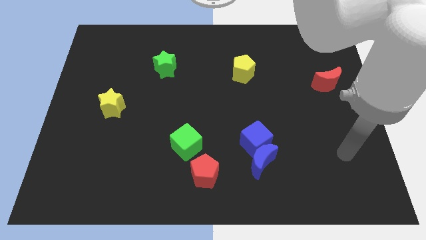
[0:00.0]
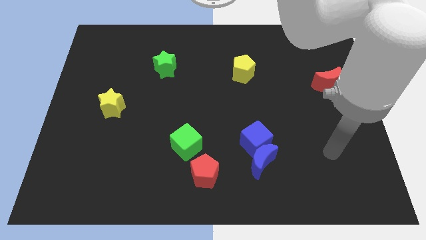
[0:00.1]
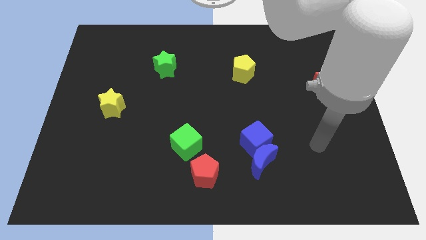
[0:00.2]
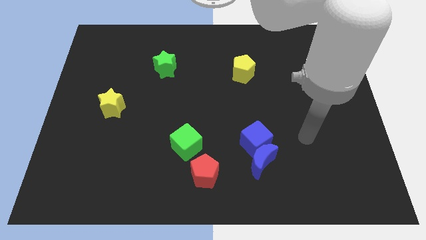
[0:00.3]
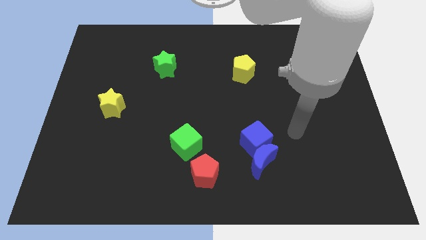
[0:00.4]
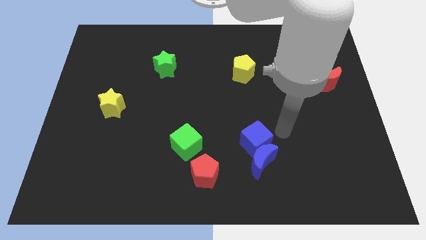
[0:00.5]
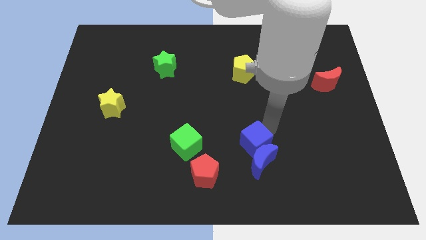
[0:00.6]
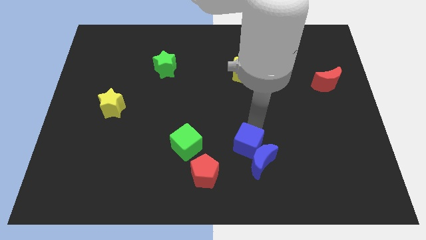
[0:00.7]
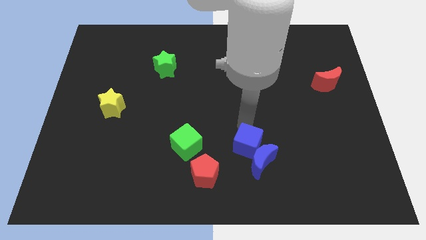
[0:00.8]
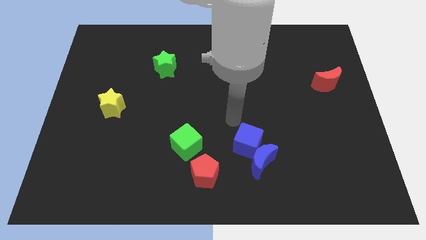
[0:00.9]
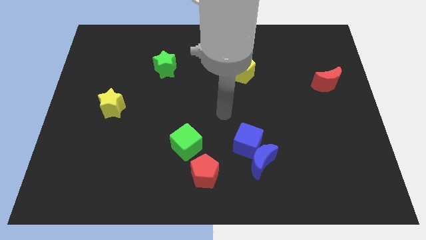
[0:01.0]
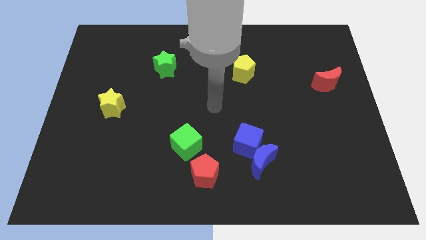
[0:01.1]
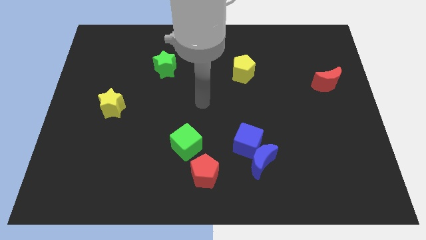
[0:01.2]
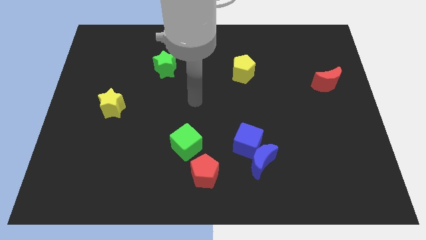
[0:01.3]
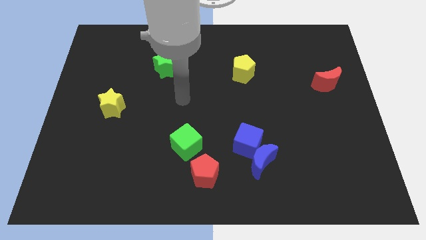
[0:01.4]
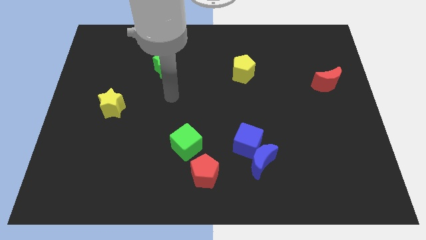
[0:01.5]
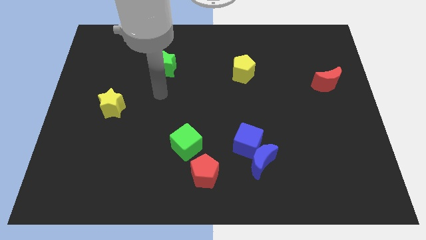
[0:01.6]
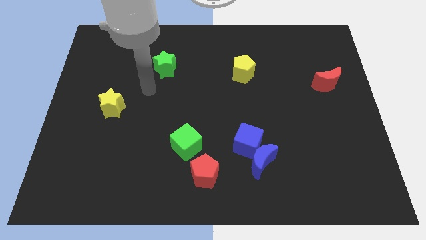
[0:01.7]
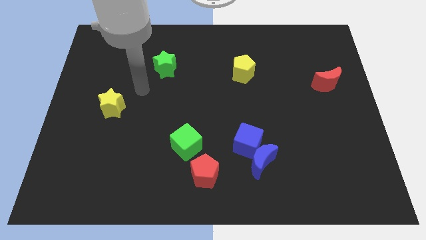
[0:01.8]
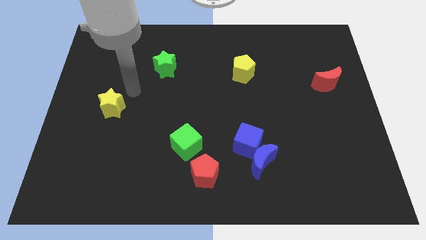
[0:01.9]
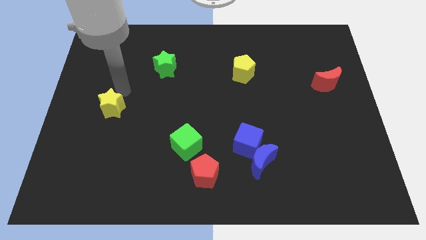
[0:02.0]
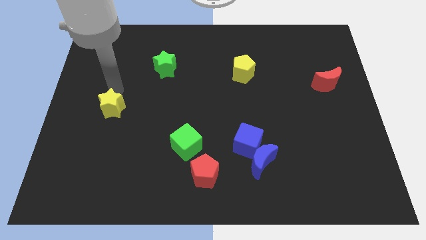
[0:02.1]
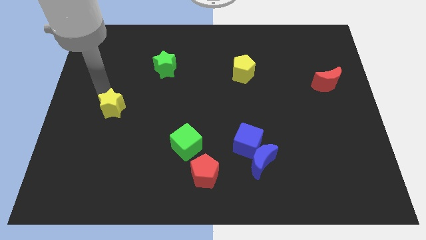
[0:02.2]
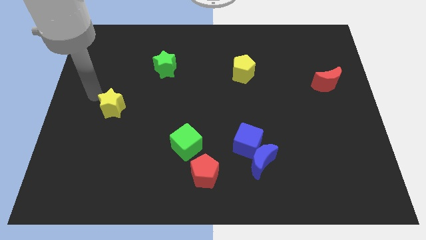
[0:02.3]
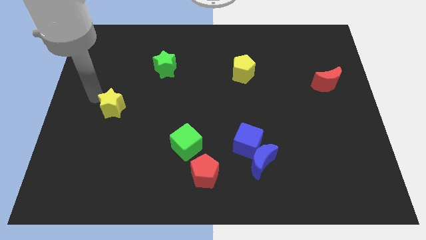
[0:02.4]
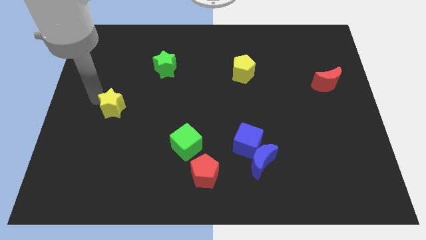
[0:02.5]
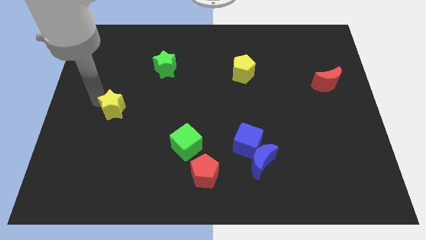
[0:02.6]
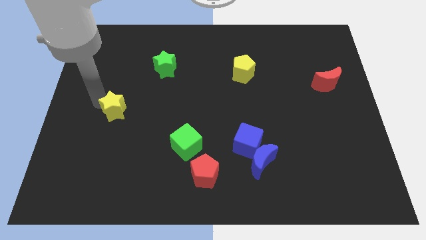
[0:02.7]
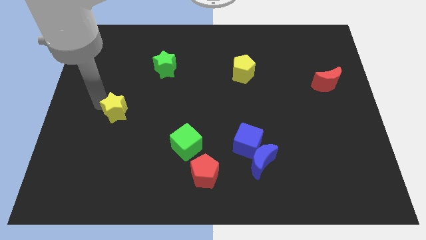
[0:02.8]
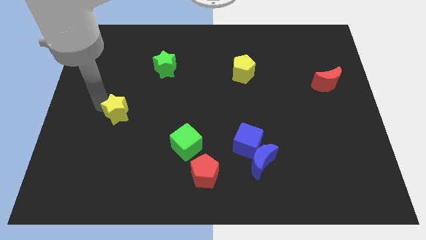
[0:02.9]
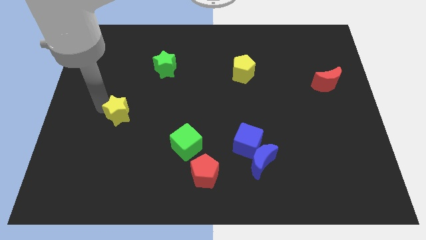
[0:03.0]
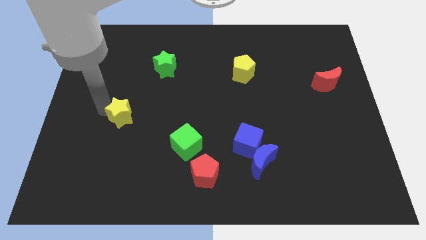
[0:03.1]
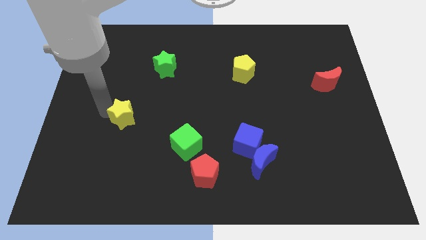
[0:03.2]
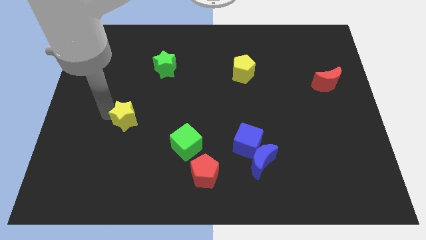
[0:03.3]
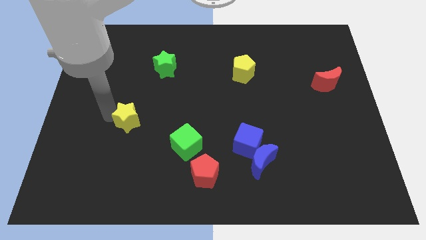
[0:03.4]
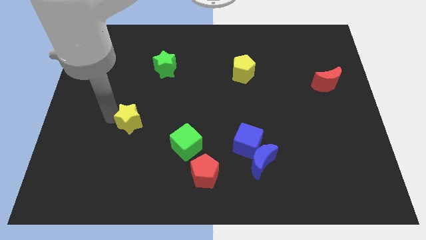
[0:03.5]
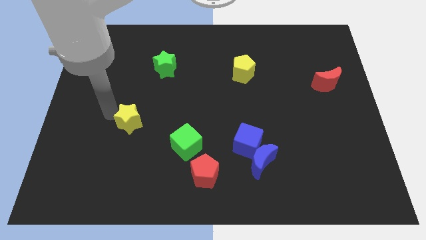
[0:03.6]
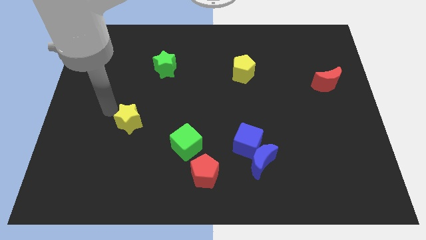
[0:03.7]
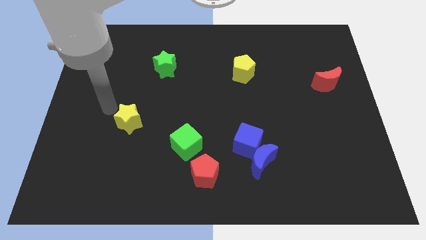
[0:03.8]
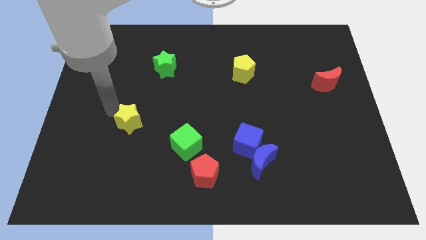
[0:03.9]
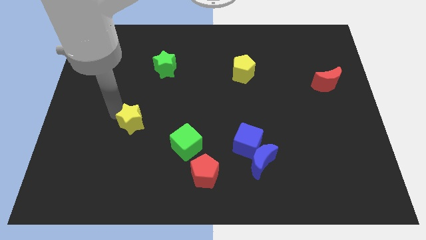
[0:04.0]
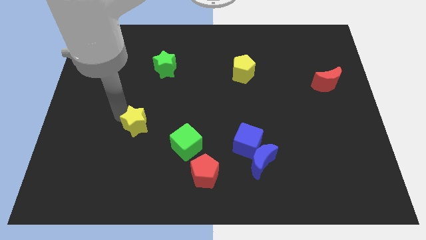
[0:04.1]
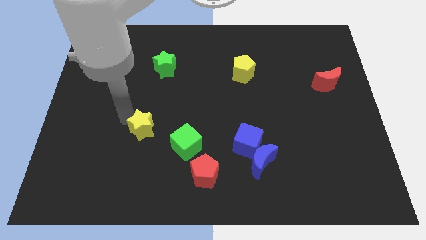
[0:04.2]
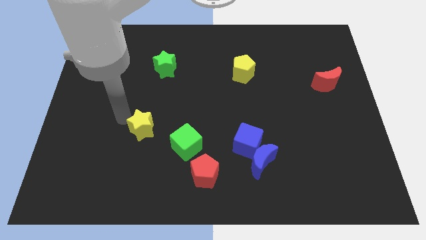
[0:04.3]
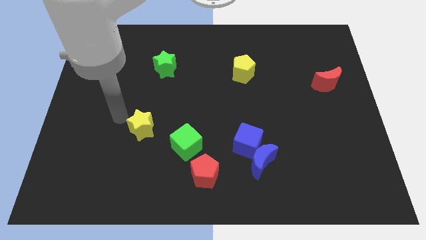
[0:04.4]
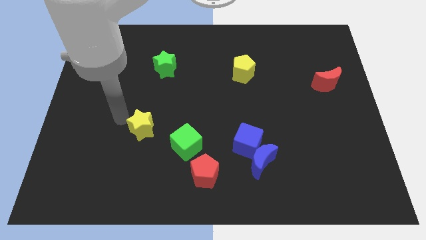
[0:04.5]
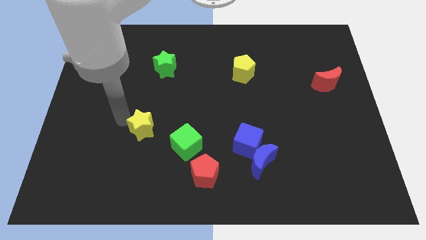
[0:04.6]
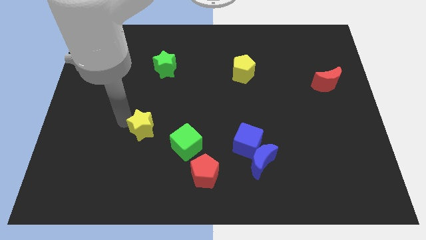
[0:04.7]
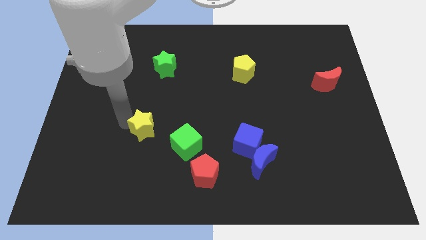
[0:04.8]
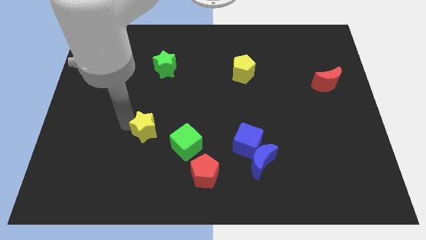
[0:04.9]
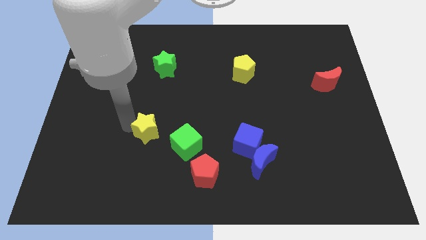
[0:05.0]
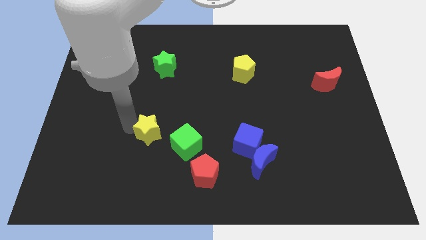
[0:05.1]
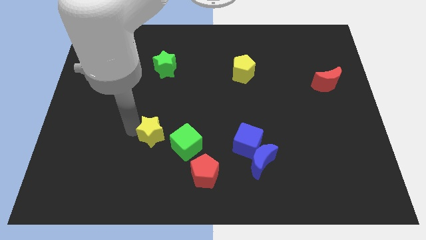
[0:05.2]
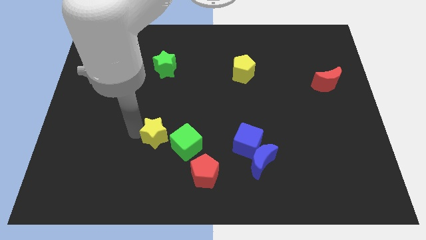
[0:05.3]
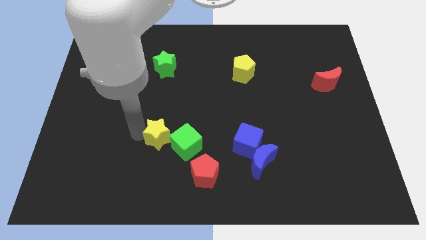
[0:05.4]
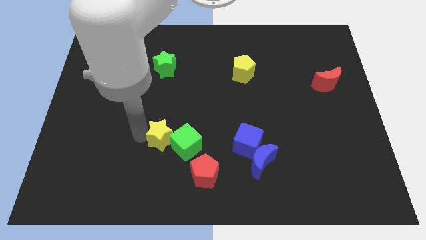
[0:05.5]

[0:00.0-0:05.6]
slide the yellow star next to the green cube
